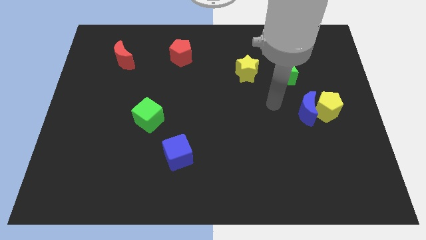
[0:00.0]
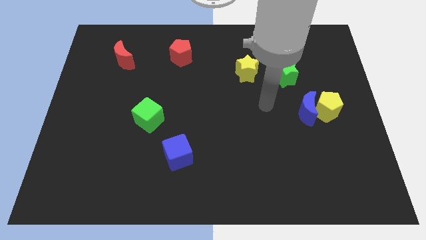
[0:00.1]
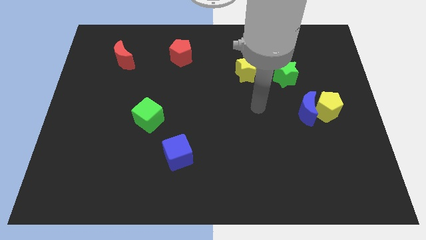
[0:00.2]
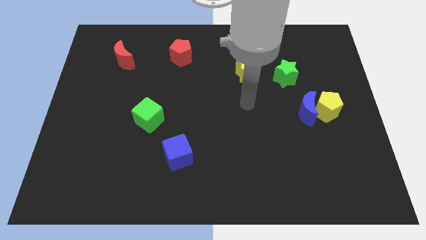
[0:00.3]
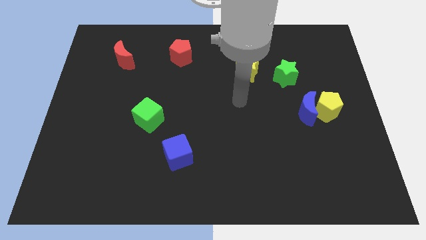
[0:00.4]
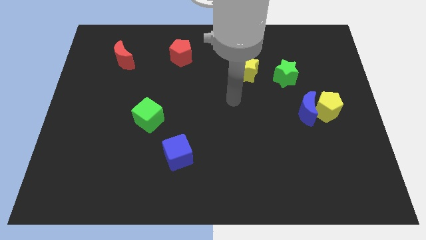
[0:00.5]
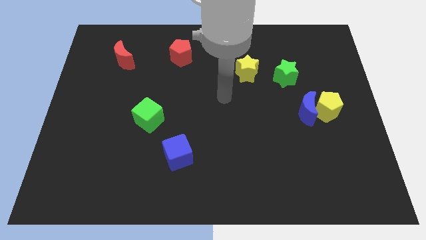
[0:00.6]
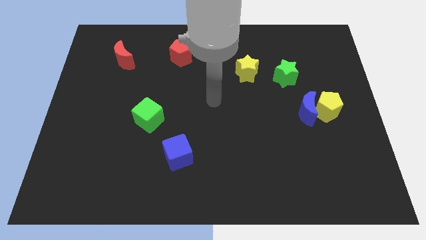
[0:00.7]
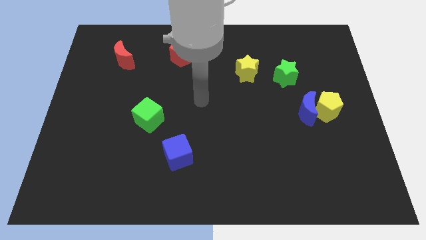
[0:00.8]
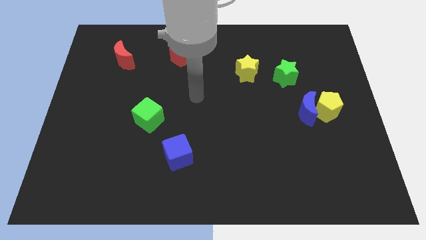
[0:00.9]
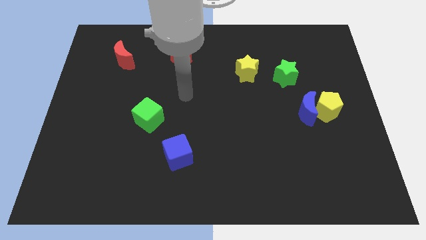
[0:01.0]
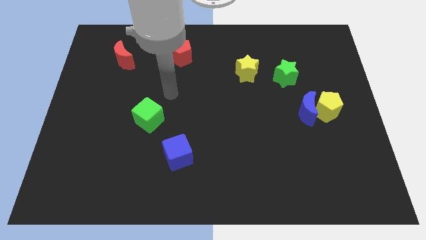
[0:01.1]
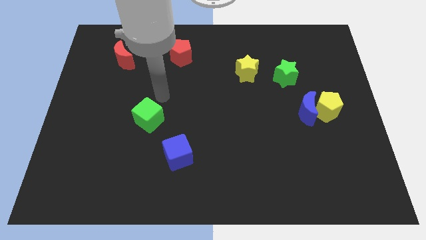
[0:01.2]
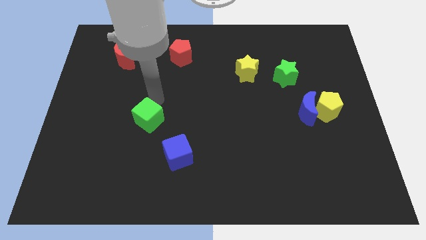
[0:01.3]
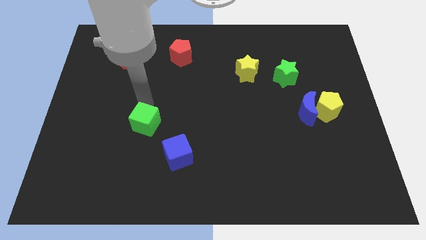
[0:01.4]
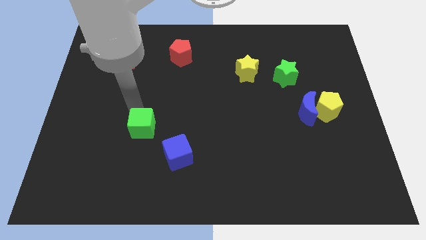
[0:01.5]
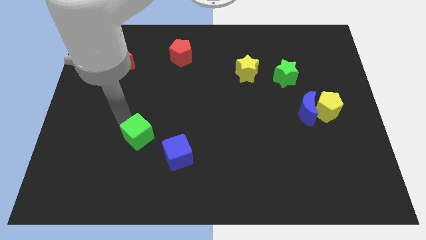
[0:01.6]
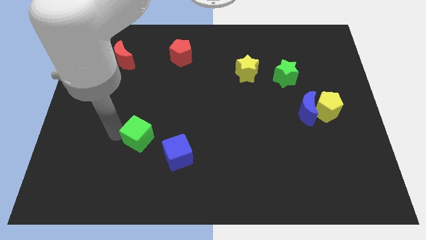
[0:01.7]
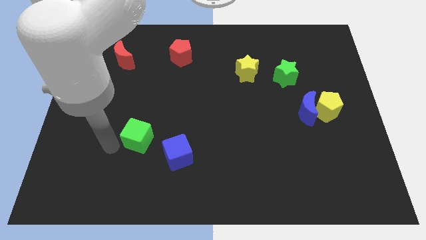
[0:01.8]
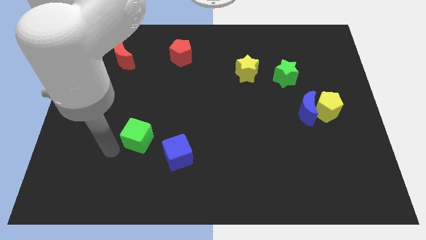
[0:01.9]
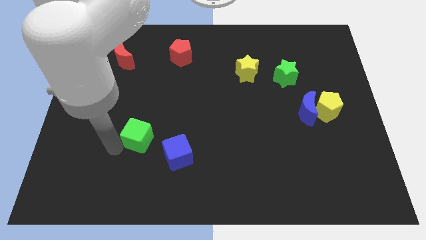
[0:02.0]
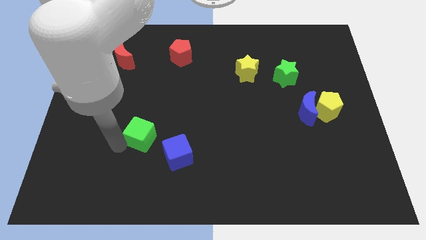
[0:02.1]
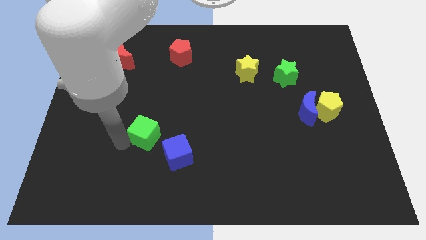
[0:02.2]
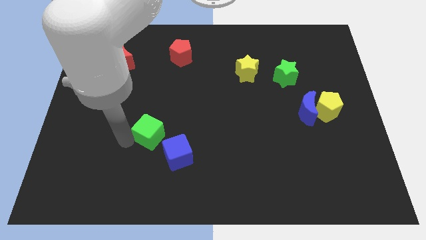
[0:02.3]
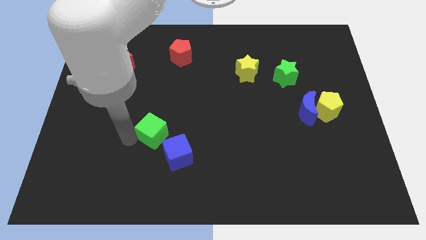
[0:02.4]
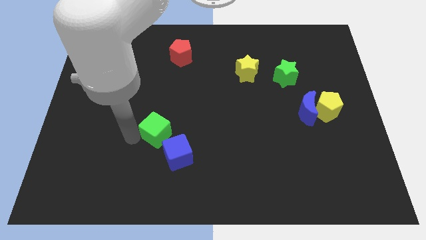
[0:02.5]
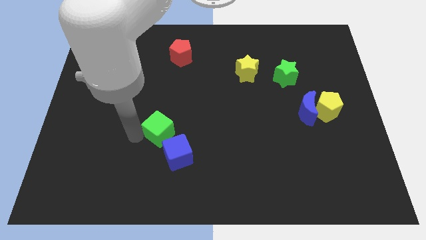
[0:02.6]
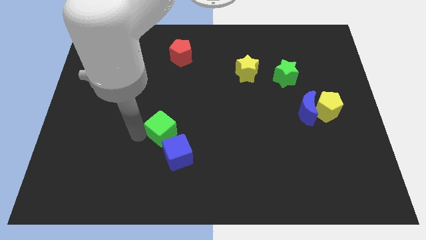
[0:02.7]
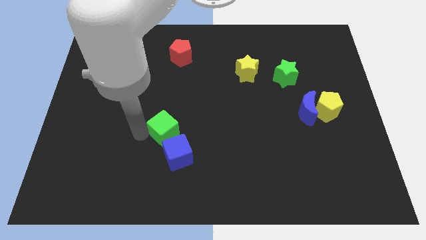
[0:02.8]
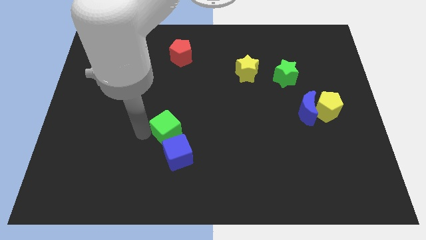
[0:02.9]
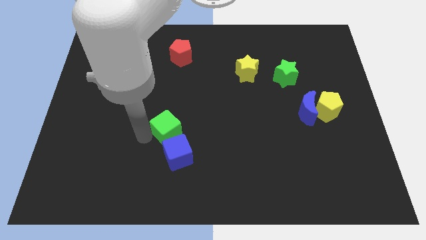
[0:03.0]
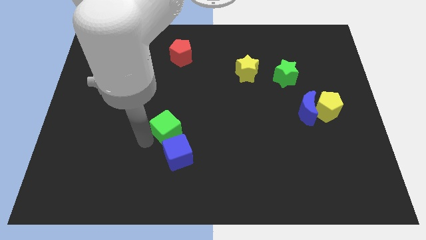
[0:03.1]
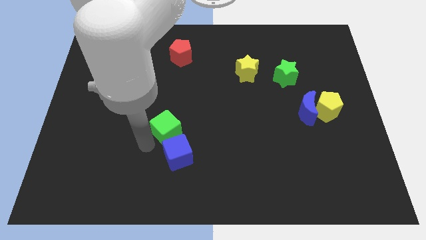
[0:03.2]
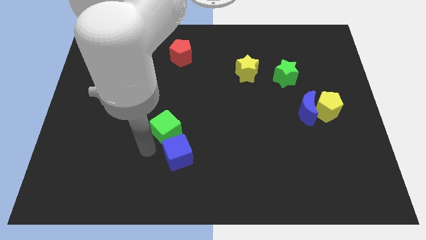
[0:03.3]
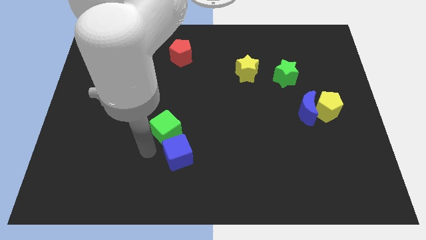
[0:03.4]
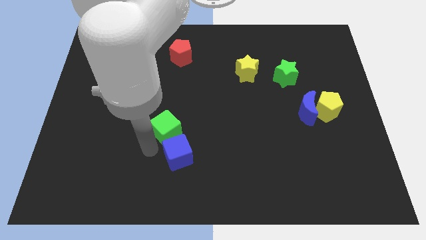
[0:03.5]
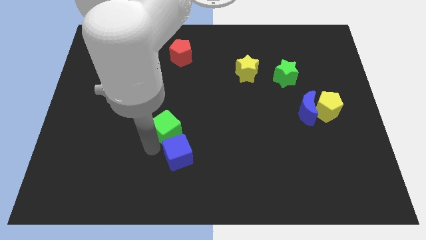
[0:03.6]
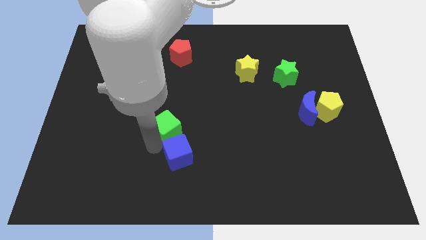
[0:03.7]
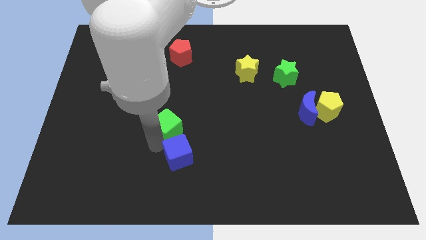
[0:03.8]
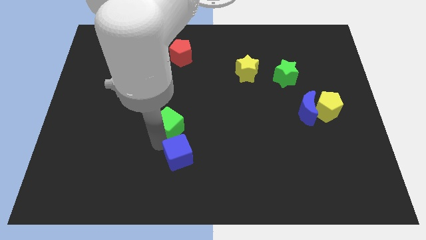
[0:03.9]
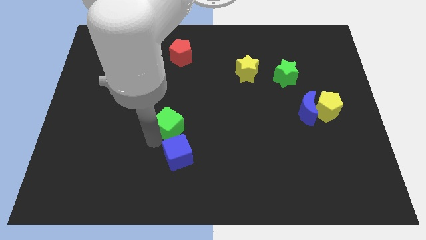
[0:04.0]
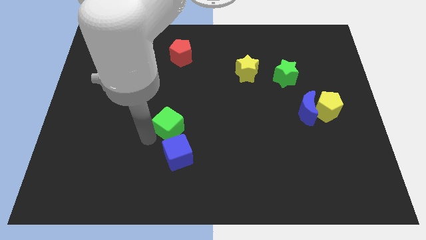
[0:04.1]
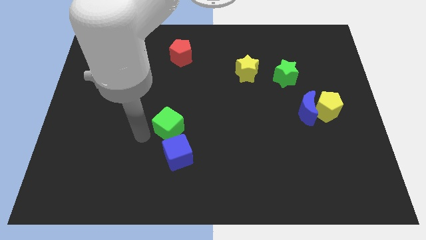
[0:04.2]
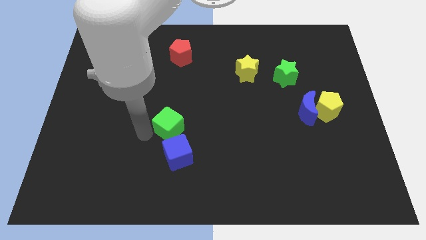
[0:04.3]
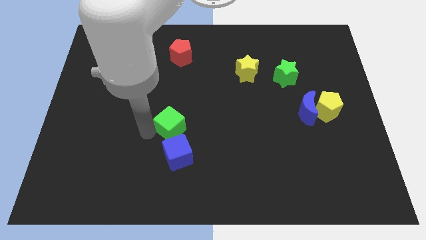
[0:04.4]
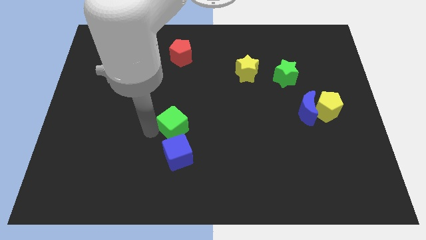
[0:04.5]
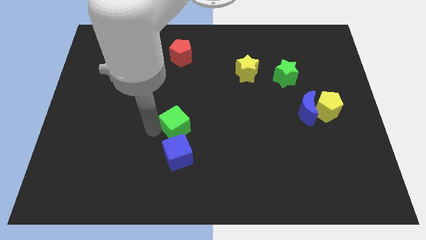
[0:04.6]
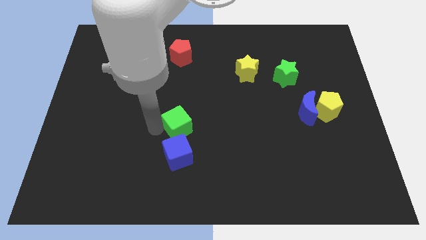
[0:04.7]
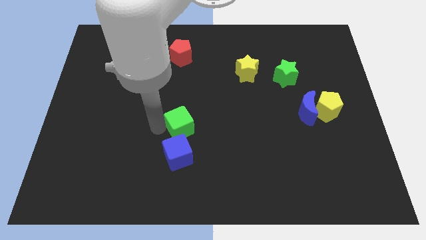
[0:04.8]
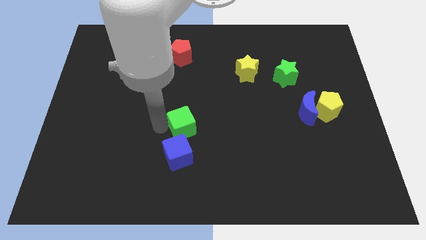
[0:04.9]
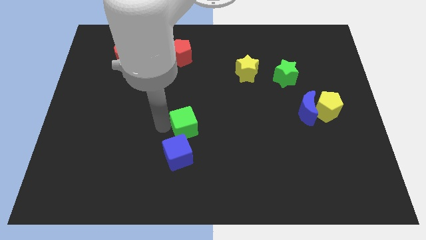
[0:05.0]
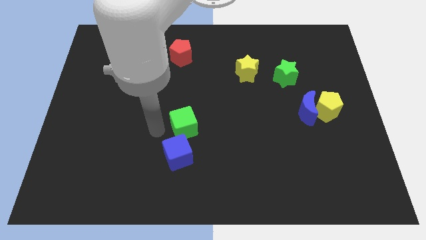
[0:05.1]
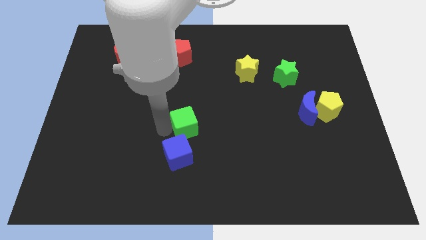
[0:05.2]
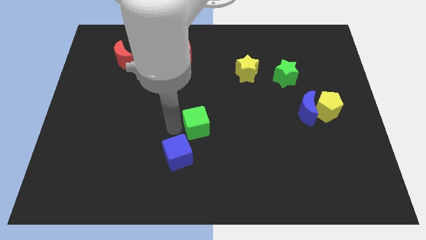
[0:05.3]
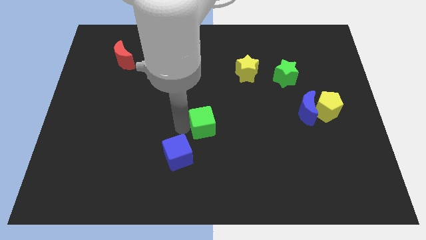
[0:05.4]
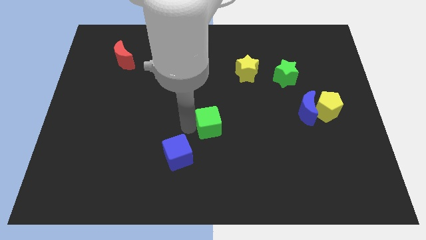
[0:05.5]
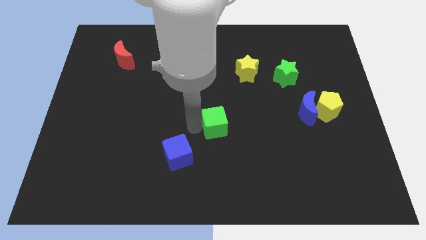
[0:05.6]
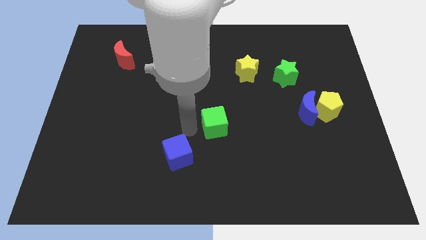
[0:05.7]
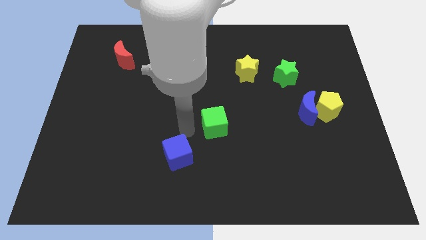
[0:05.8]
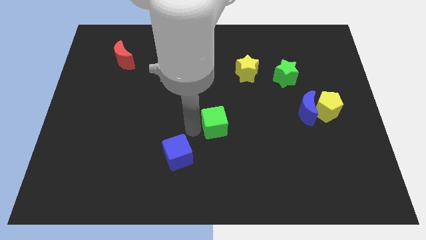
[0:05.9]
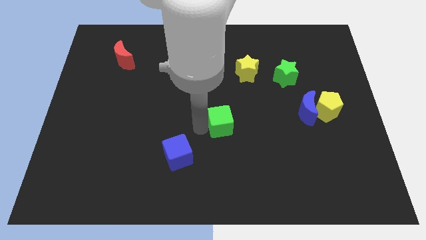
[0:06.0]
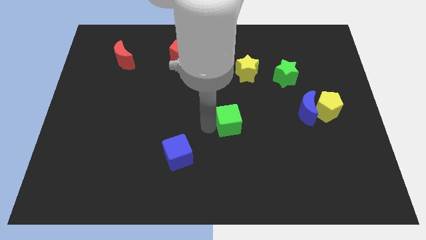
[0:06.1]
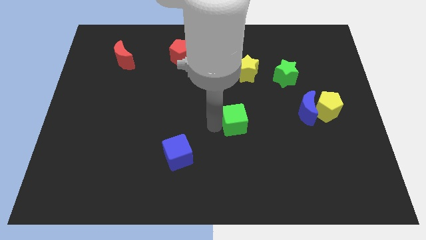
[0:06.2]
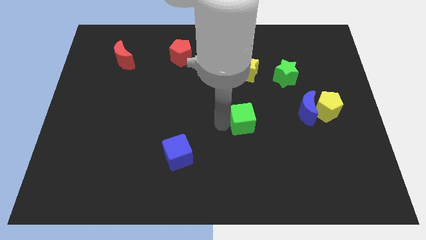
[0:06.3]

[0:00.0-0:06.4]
slide the green cube to the right

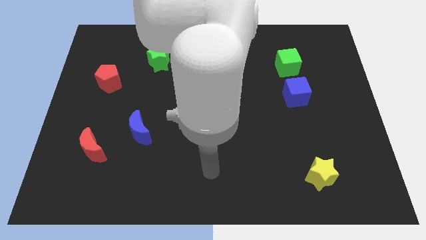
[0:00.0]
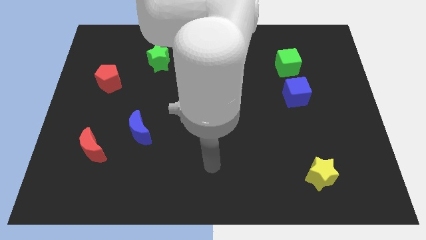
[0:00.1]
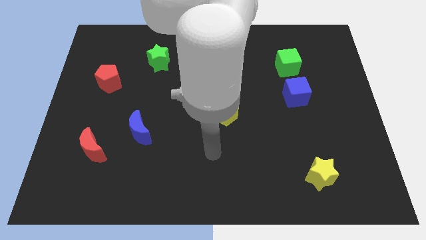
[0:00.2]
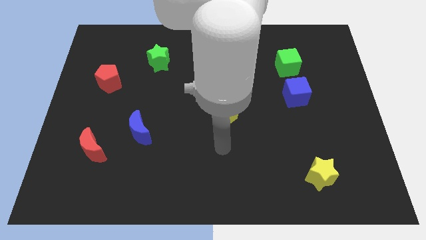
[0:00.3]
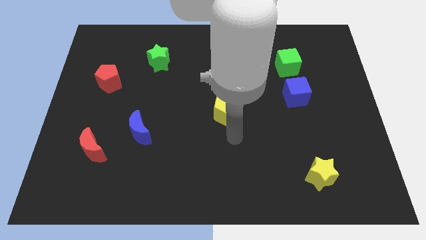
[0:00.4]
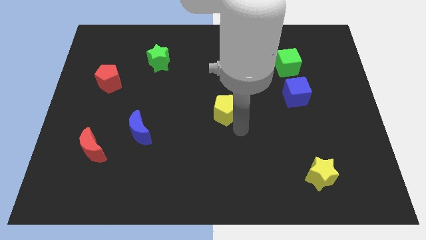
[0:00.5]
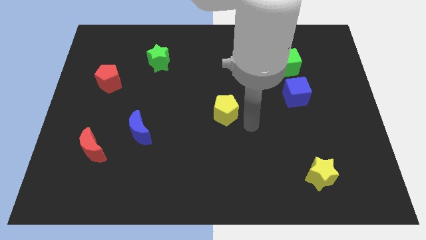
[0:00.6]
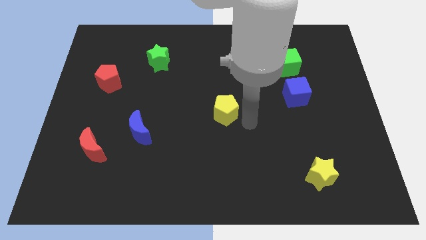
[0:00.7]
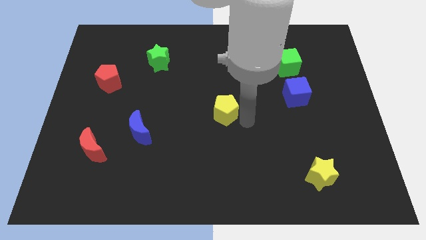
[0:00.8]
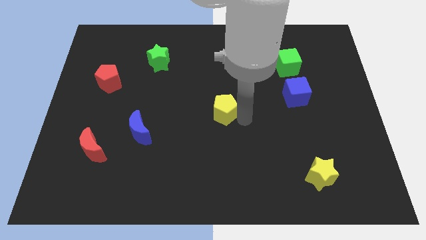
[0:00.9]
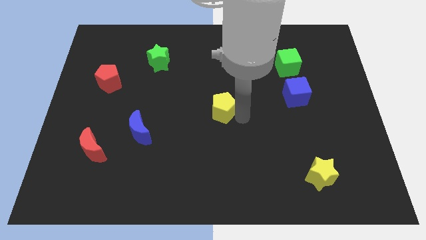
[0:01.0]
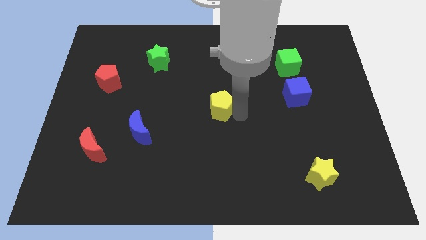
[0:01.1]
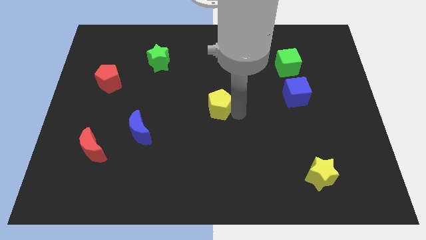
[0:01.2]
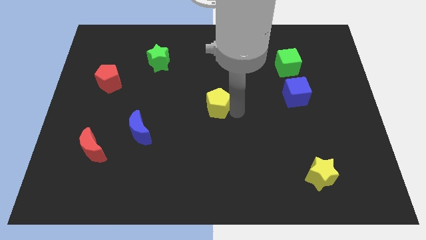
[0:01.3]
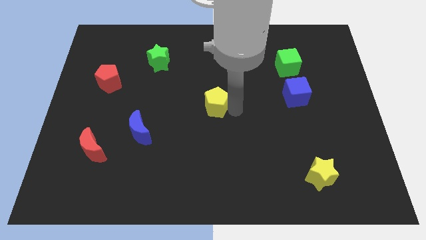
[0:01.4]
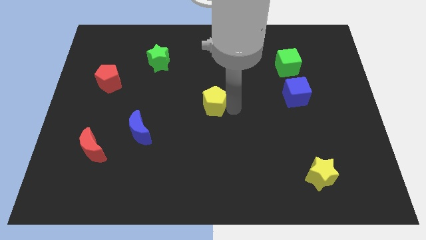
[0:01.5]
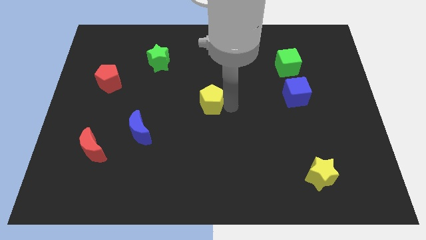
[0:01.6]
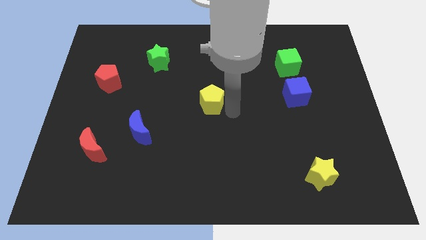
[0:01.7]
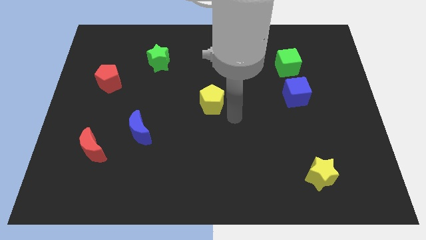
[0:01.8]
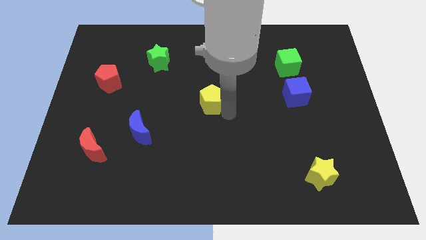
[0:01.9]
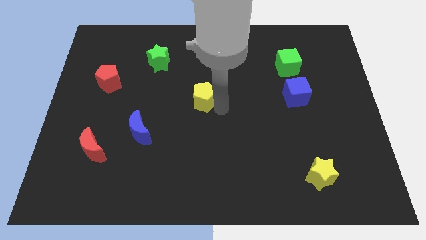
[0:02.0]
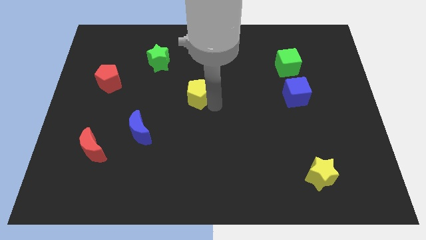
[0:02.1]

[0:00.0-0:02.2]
slightly slide the yellow pentagon upwards and to the left
